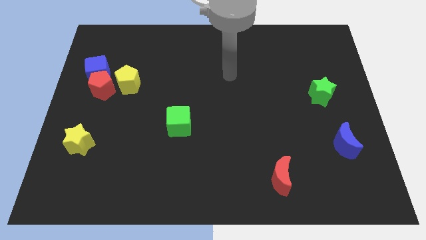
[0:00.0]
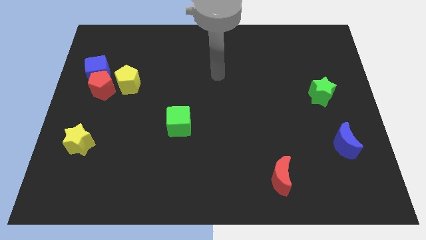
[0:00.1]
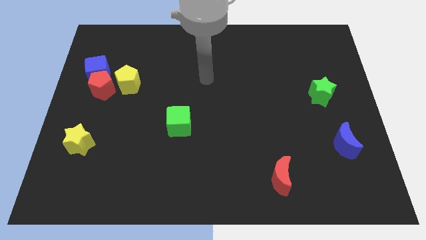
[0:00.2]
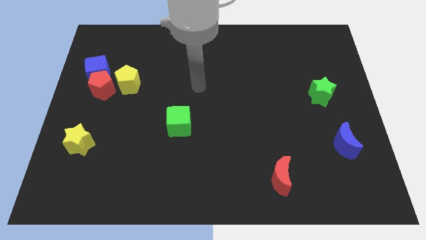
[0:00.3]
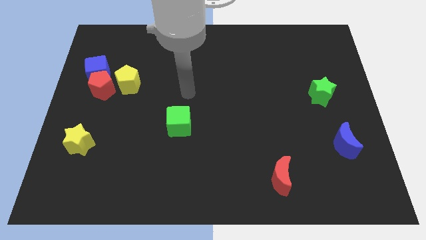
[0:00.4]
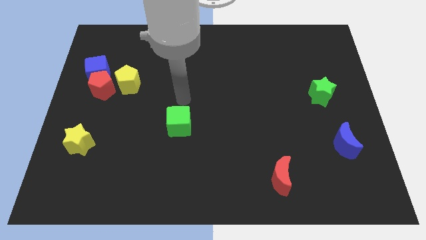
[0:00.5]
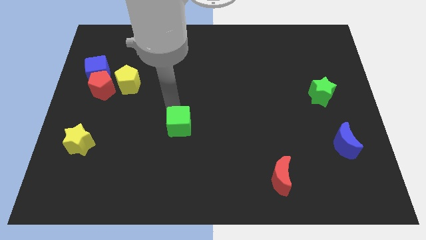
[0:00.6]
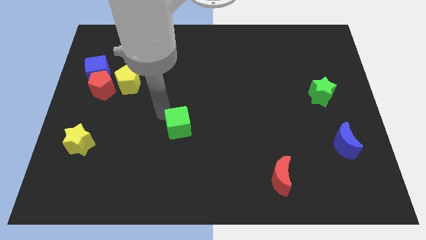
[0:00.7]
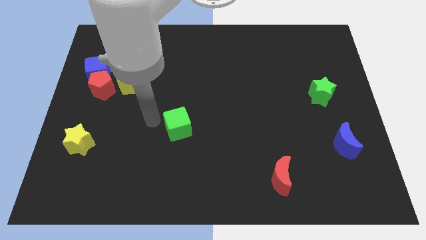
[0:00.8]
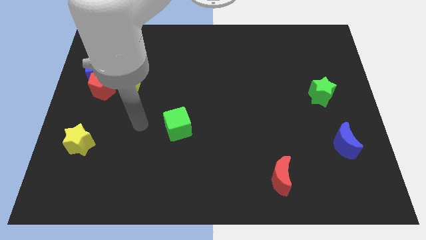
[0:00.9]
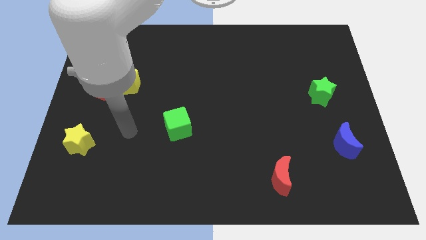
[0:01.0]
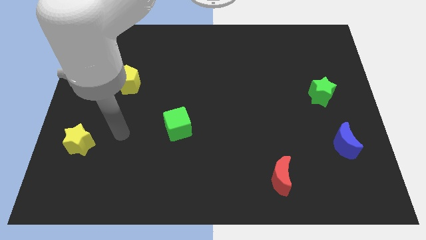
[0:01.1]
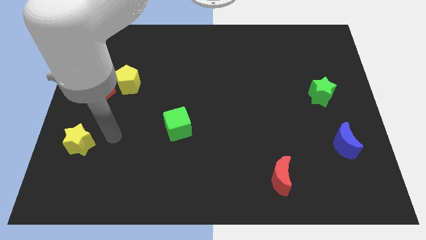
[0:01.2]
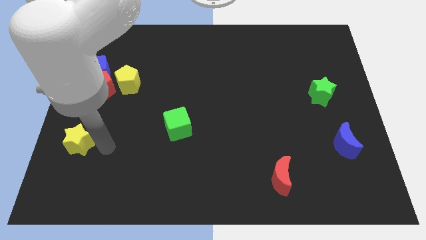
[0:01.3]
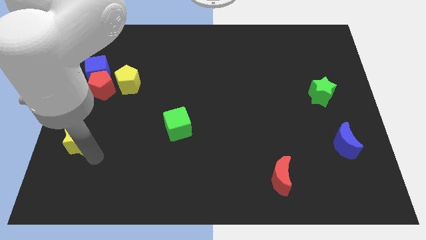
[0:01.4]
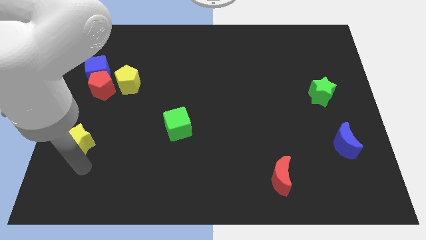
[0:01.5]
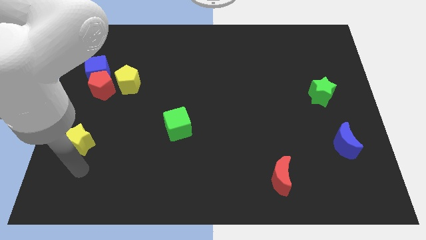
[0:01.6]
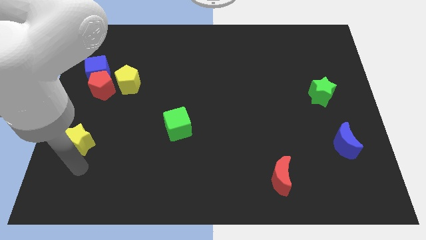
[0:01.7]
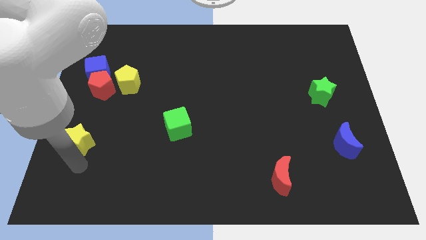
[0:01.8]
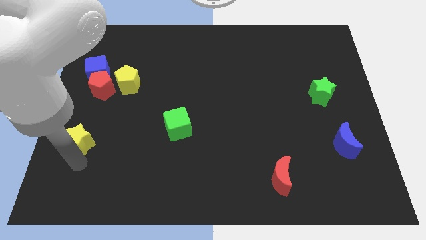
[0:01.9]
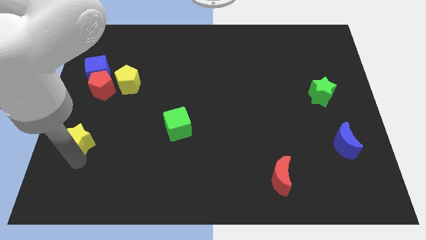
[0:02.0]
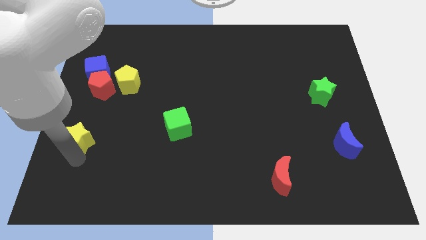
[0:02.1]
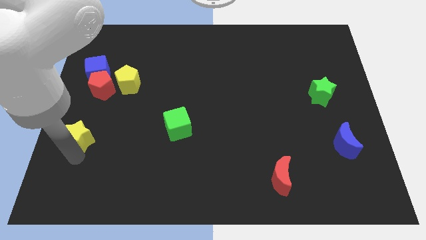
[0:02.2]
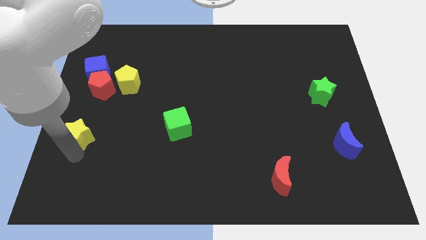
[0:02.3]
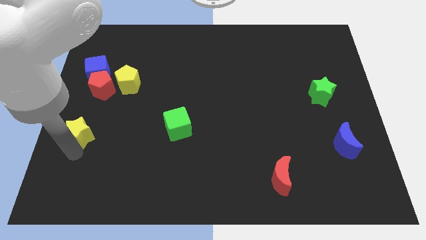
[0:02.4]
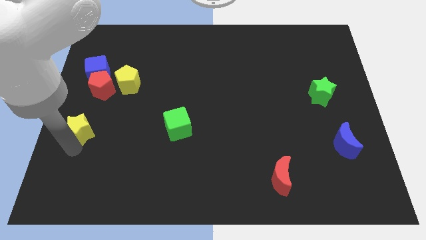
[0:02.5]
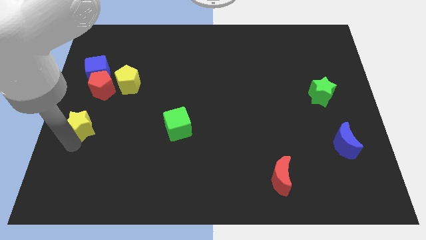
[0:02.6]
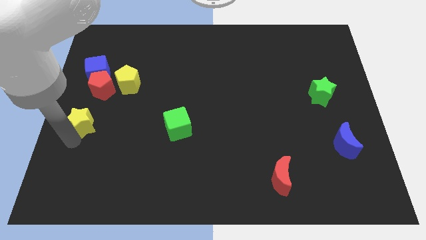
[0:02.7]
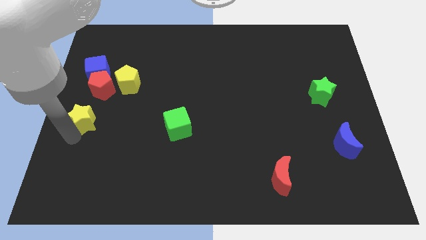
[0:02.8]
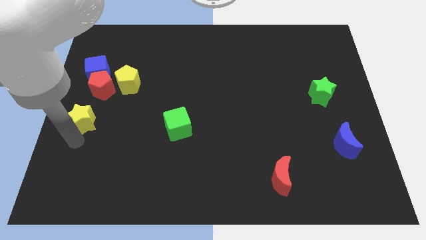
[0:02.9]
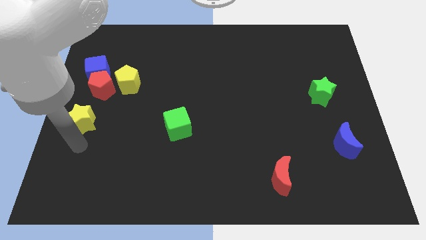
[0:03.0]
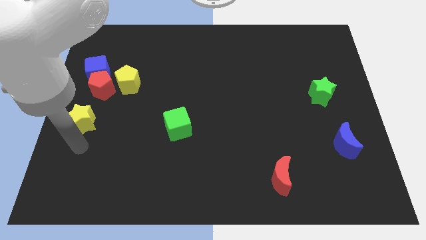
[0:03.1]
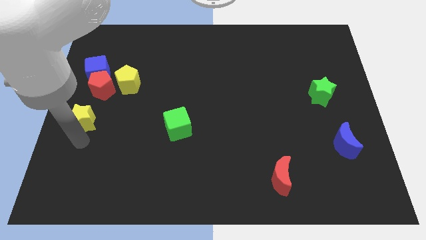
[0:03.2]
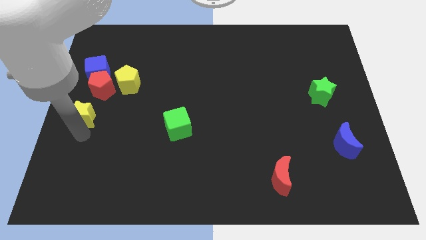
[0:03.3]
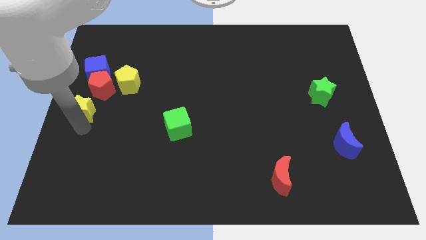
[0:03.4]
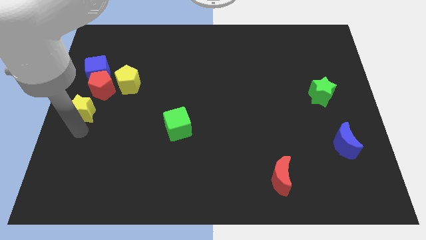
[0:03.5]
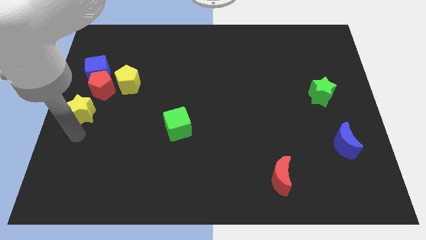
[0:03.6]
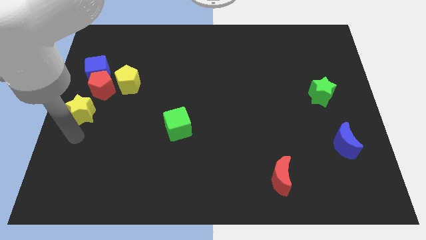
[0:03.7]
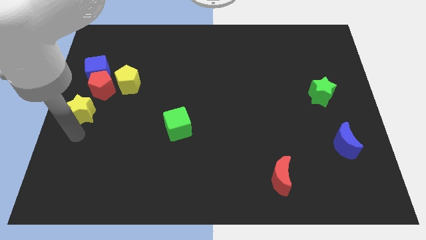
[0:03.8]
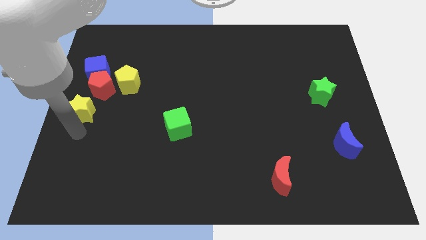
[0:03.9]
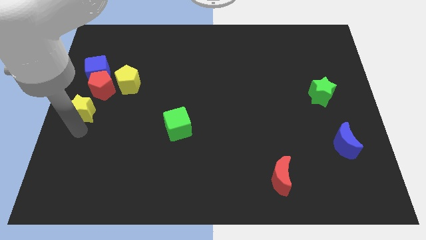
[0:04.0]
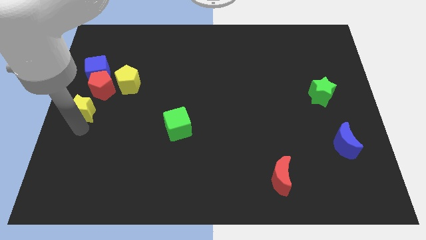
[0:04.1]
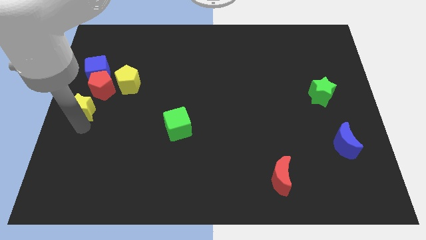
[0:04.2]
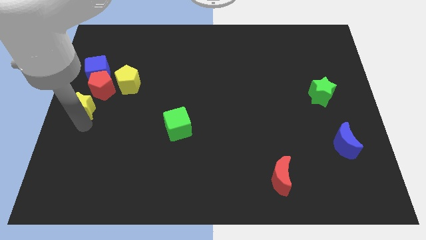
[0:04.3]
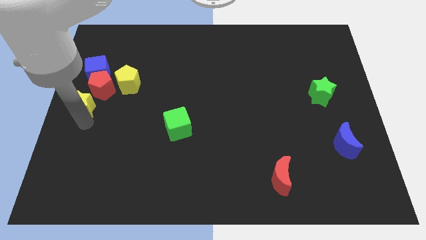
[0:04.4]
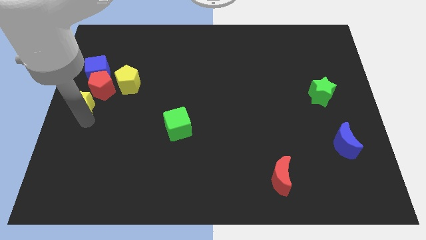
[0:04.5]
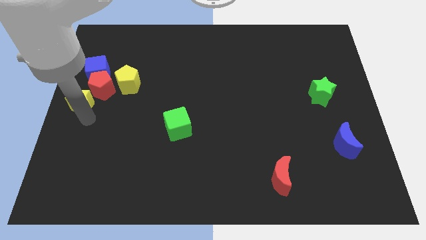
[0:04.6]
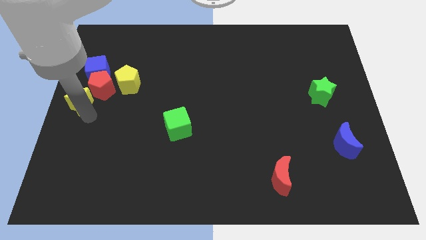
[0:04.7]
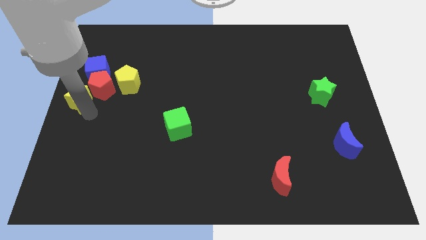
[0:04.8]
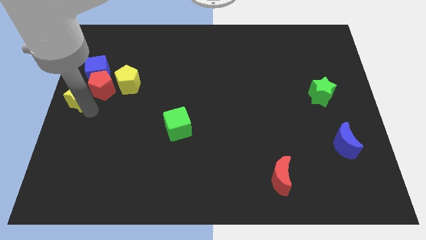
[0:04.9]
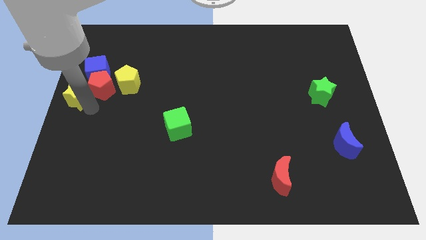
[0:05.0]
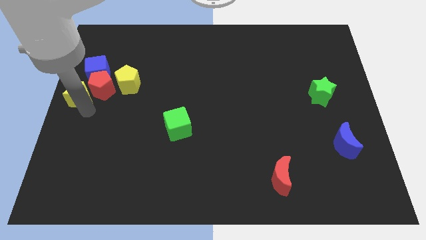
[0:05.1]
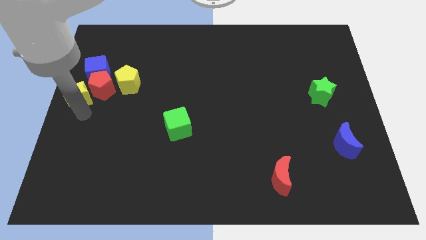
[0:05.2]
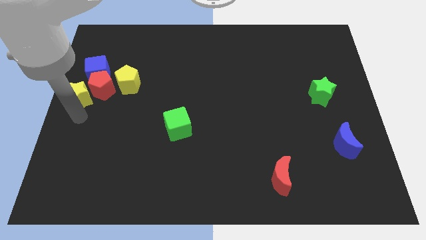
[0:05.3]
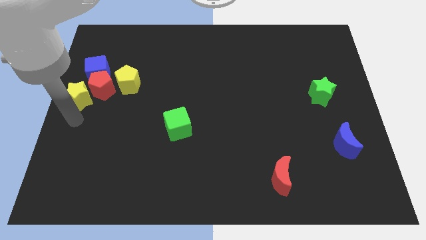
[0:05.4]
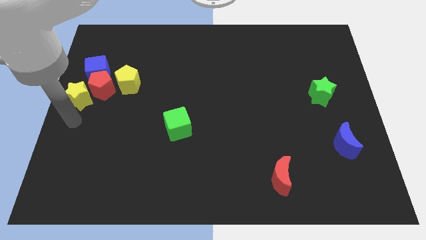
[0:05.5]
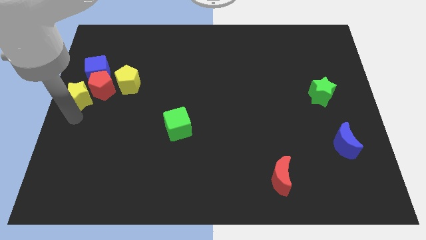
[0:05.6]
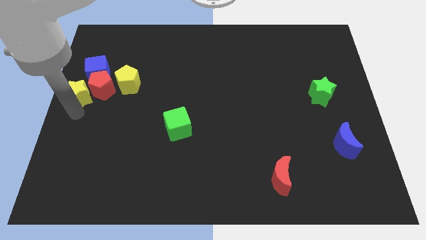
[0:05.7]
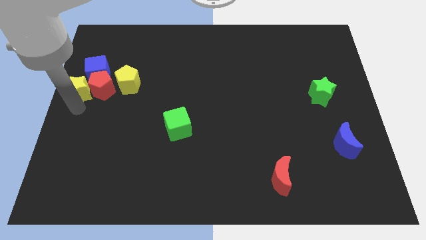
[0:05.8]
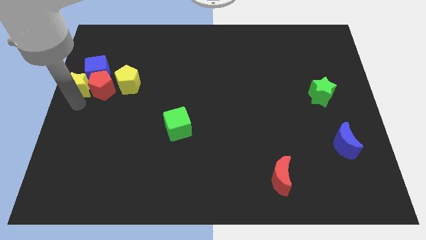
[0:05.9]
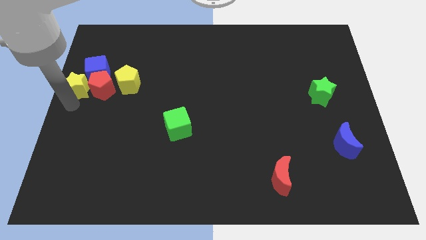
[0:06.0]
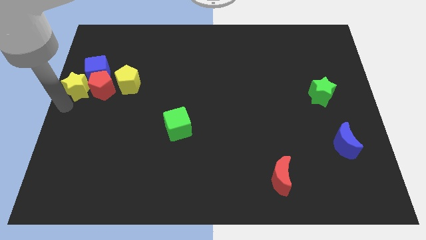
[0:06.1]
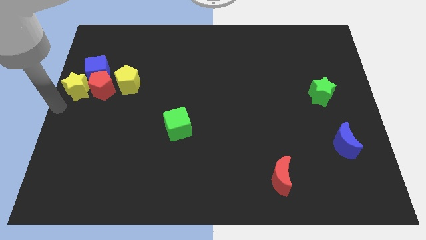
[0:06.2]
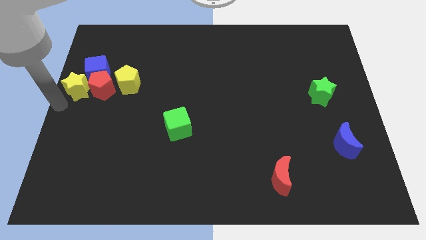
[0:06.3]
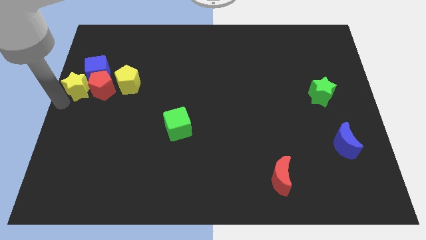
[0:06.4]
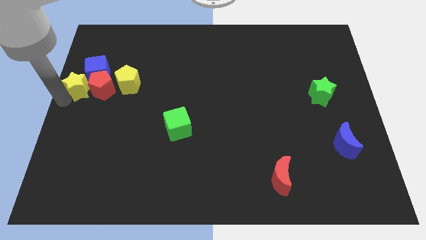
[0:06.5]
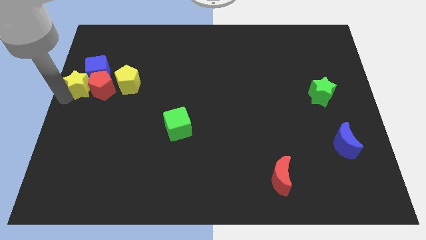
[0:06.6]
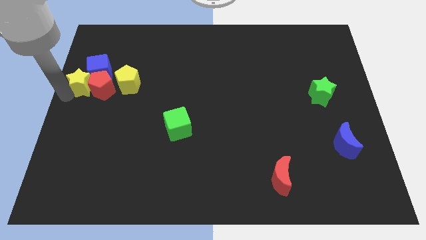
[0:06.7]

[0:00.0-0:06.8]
push the yellow star close to the blue cube

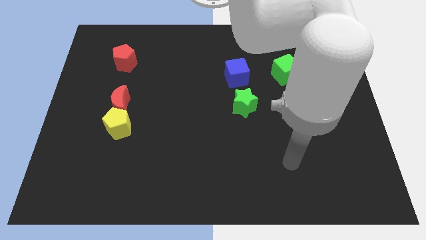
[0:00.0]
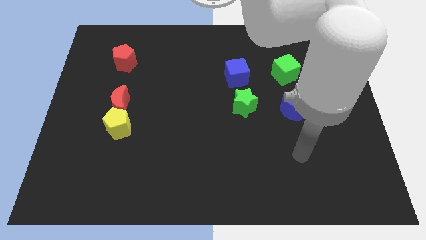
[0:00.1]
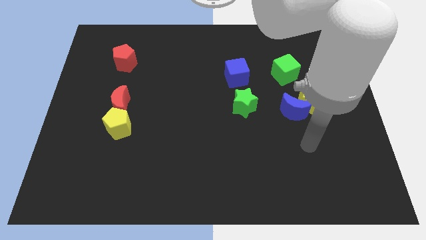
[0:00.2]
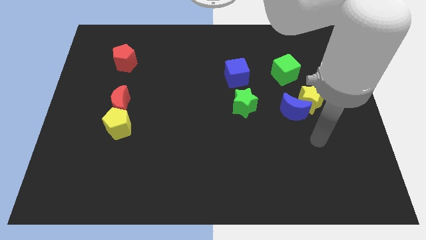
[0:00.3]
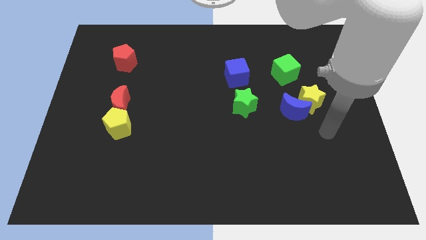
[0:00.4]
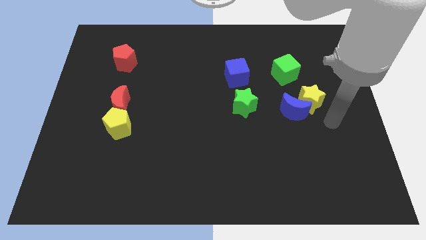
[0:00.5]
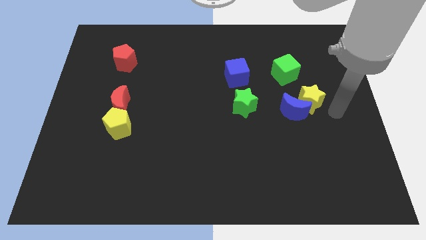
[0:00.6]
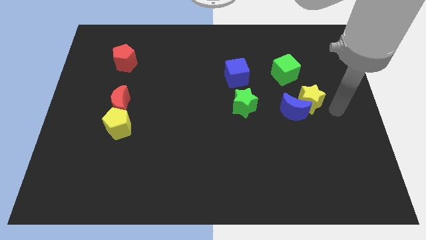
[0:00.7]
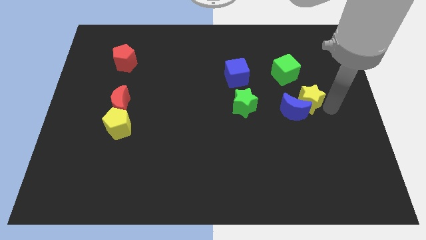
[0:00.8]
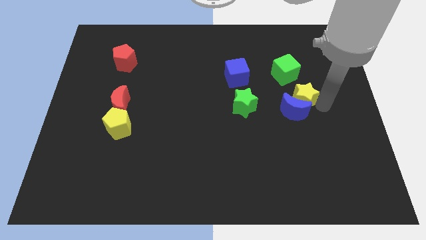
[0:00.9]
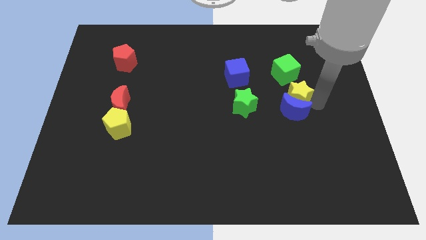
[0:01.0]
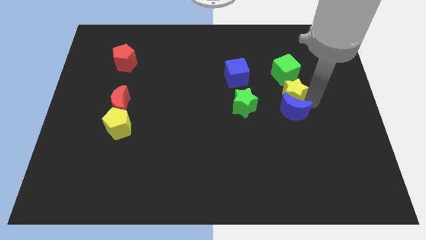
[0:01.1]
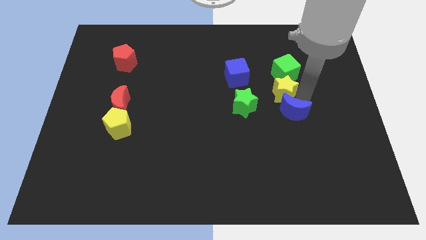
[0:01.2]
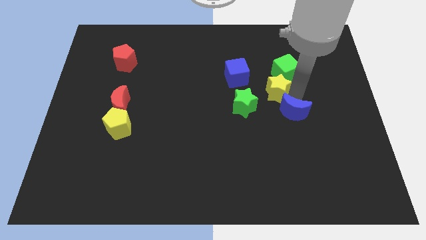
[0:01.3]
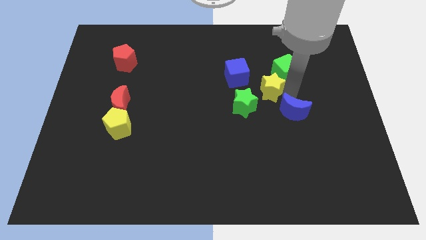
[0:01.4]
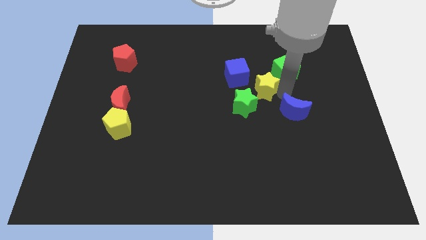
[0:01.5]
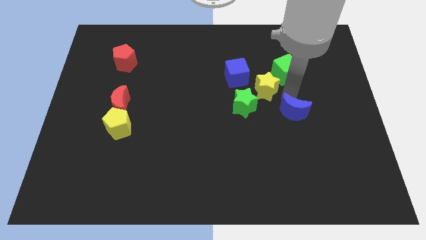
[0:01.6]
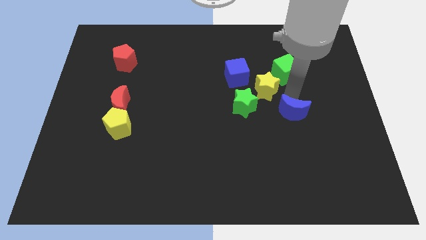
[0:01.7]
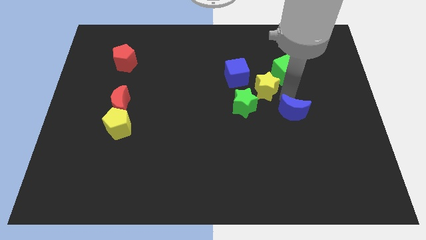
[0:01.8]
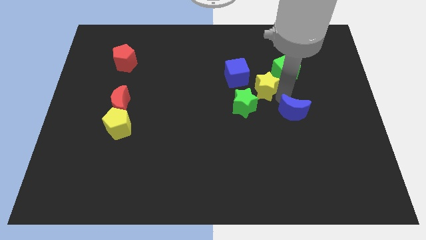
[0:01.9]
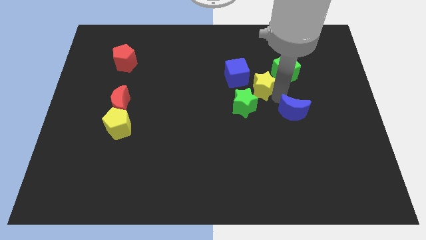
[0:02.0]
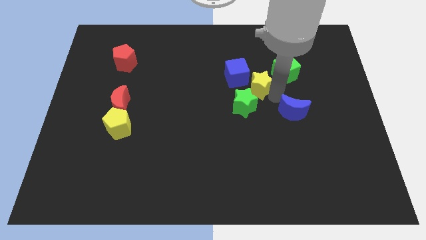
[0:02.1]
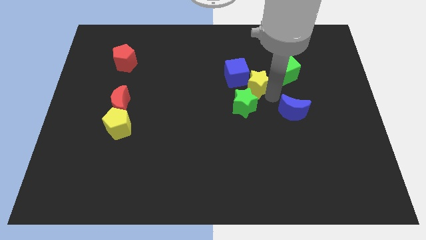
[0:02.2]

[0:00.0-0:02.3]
slide the yellow star towards the blue cube
